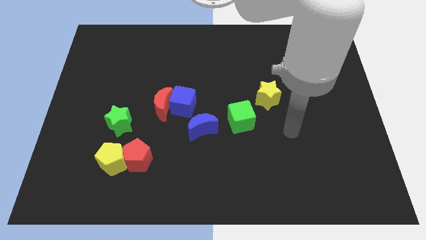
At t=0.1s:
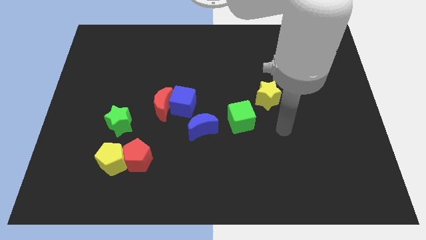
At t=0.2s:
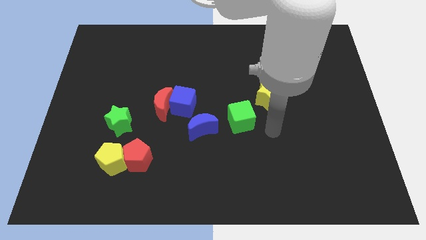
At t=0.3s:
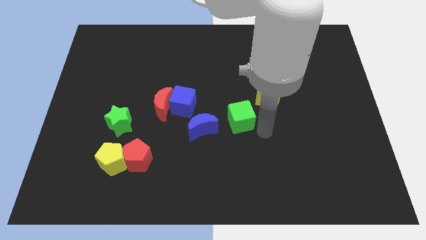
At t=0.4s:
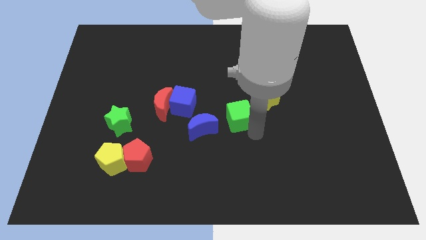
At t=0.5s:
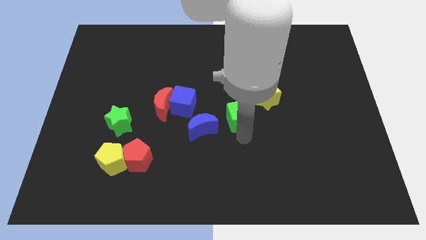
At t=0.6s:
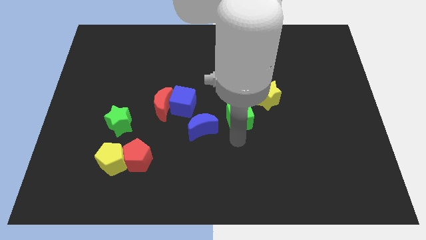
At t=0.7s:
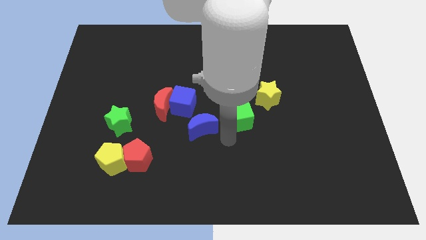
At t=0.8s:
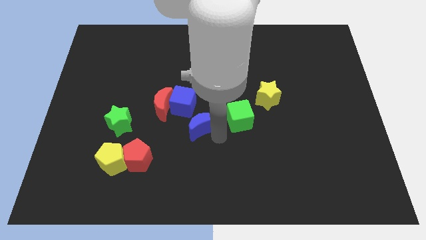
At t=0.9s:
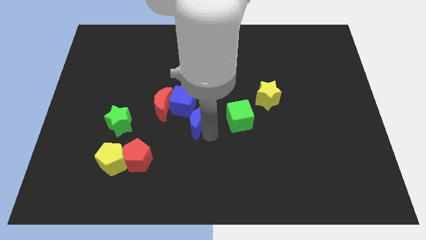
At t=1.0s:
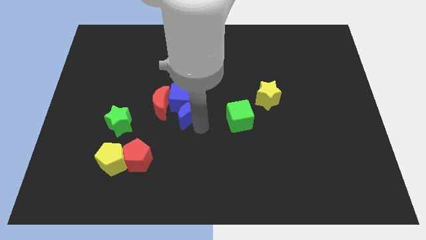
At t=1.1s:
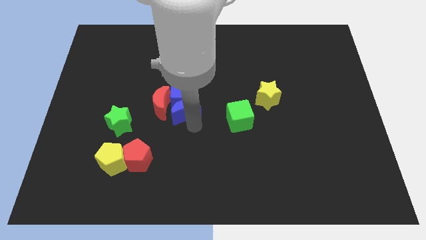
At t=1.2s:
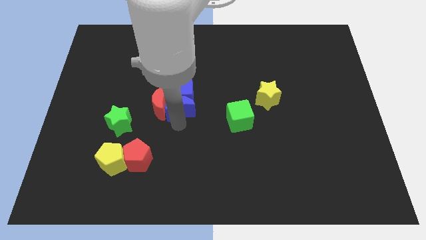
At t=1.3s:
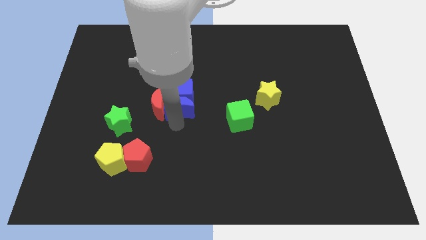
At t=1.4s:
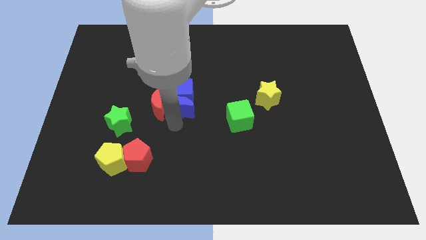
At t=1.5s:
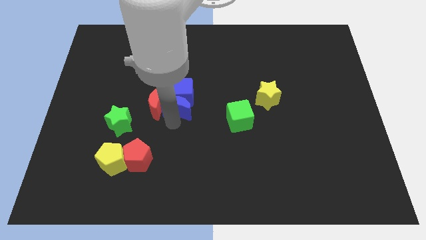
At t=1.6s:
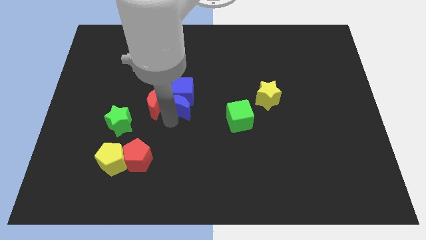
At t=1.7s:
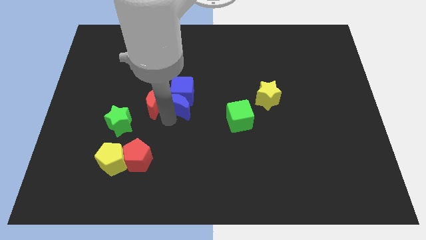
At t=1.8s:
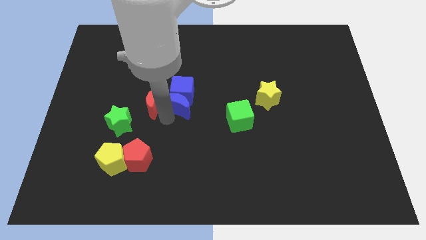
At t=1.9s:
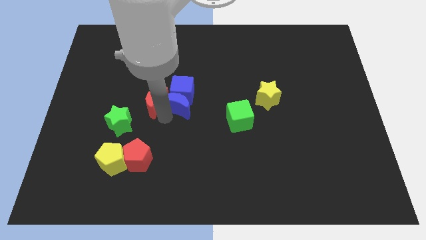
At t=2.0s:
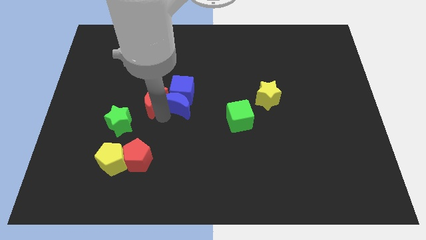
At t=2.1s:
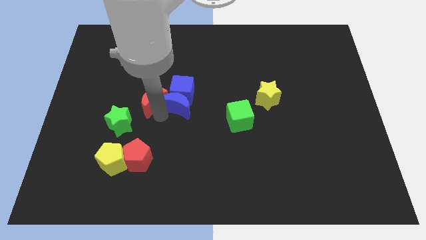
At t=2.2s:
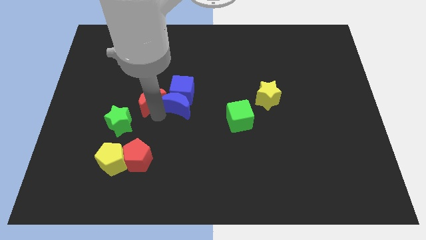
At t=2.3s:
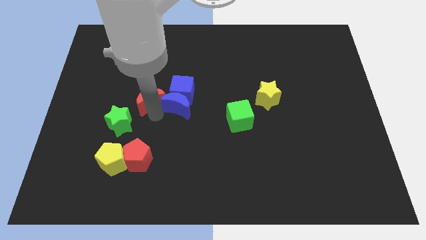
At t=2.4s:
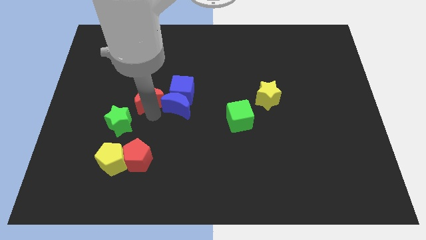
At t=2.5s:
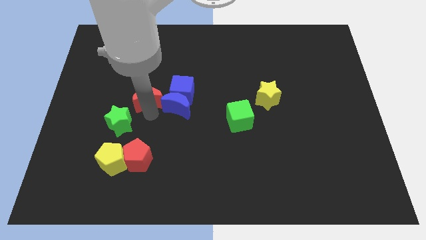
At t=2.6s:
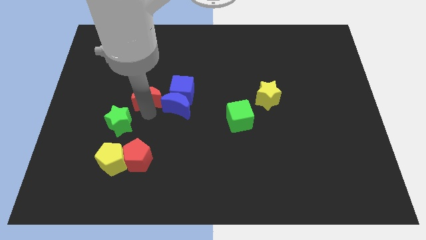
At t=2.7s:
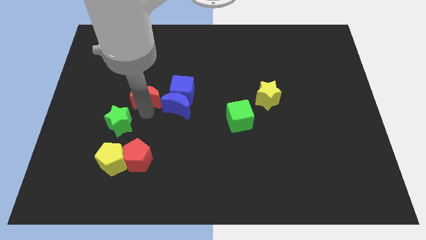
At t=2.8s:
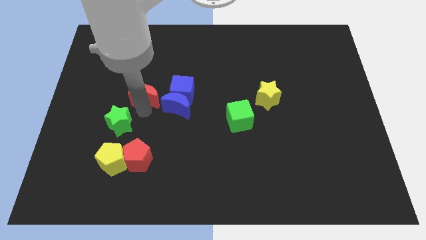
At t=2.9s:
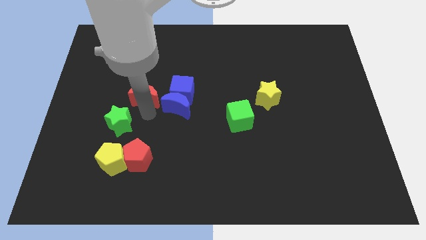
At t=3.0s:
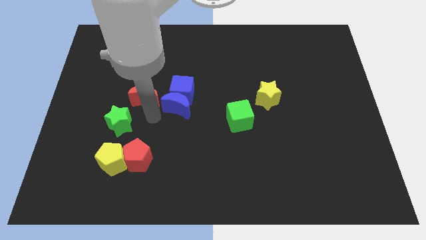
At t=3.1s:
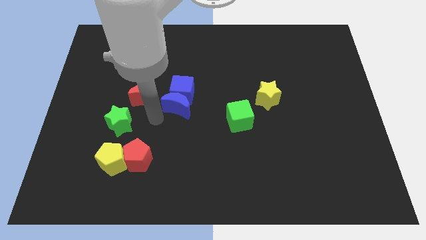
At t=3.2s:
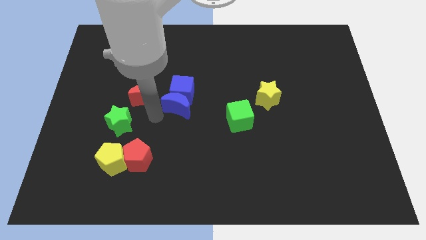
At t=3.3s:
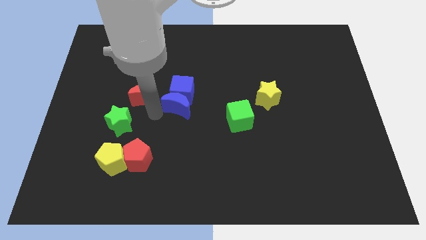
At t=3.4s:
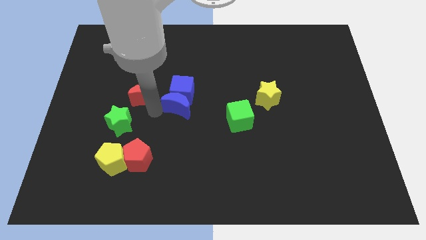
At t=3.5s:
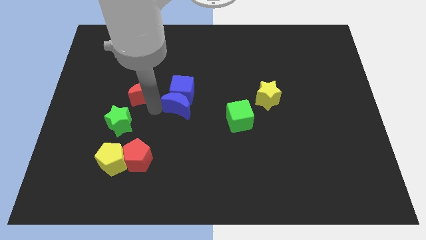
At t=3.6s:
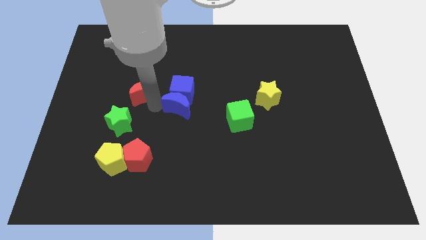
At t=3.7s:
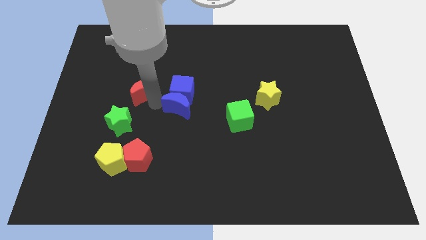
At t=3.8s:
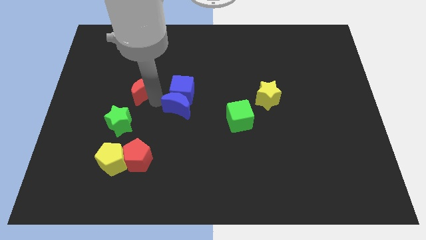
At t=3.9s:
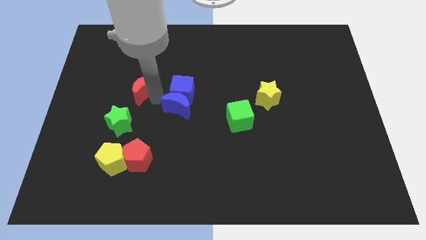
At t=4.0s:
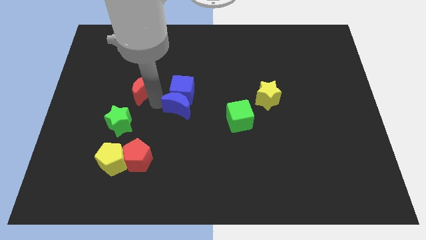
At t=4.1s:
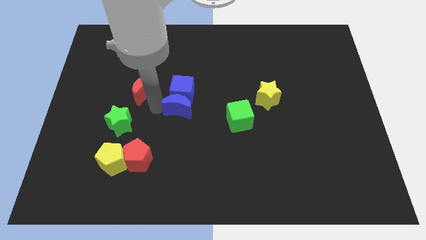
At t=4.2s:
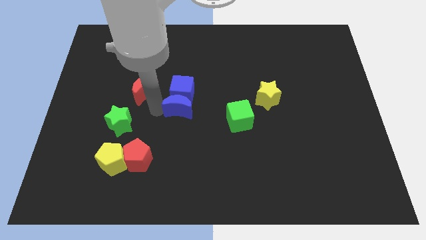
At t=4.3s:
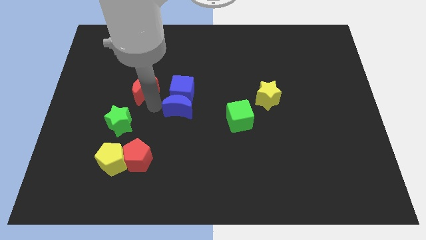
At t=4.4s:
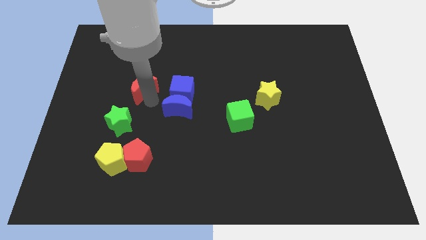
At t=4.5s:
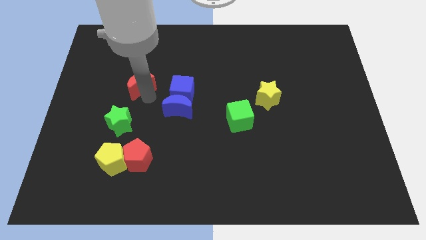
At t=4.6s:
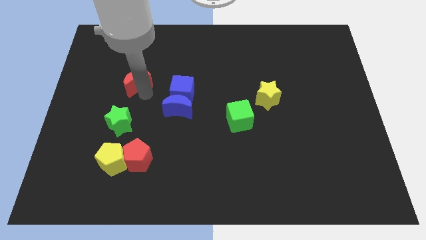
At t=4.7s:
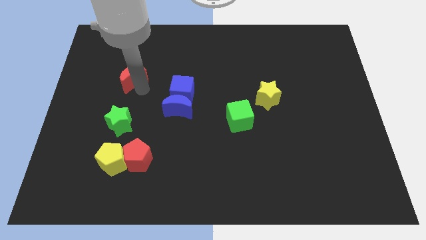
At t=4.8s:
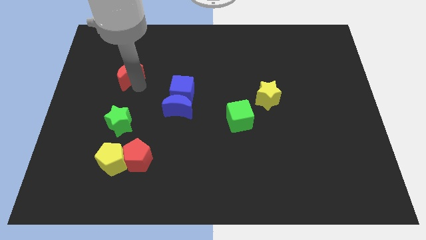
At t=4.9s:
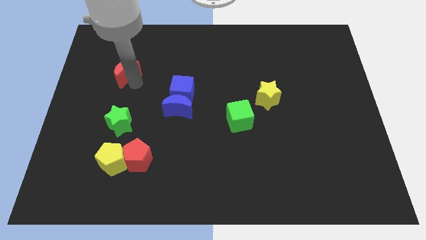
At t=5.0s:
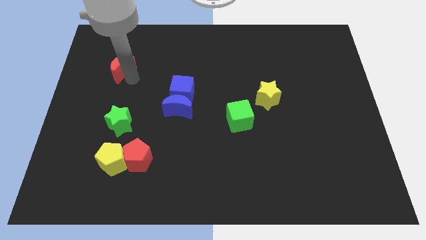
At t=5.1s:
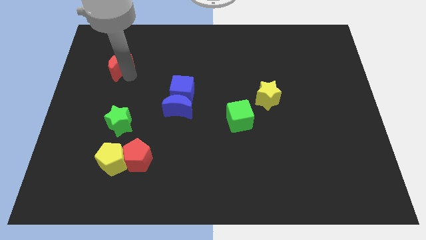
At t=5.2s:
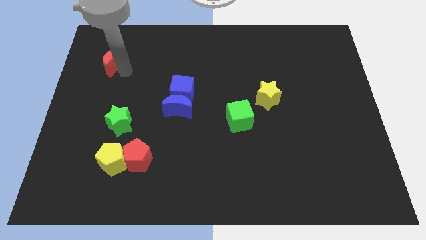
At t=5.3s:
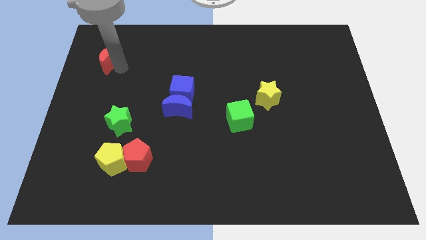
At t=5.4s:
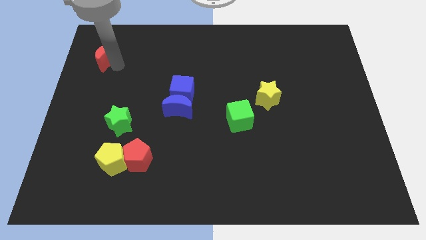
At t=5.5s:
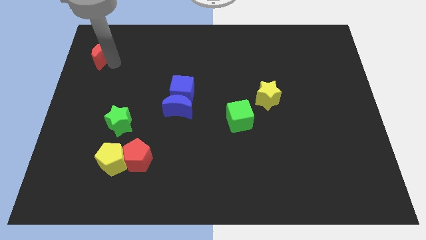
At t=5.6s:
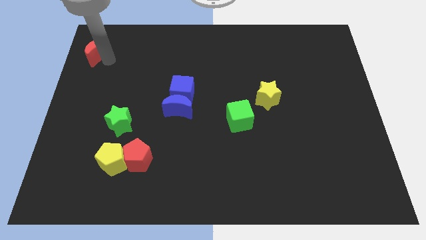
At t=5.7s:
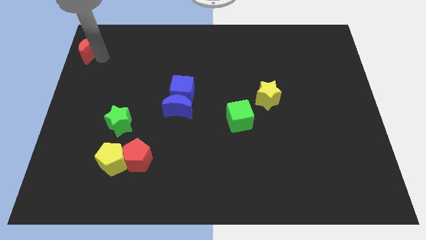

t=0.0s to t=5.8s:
put the red moon to the top left of the board

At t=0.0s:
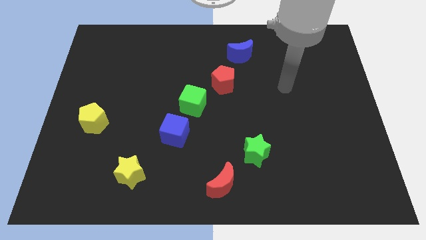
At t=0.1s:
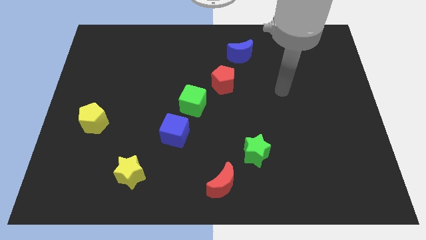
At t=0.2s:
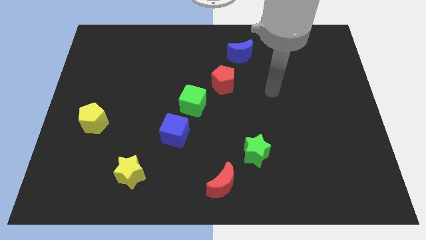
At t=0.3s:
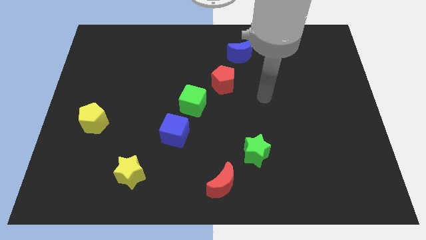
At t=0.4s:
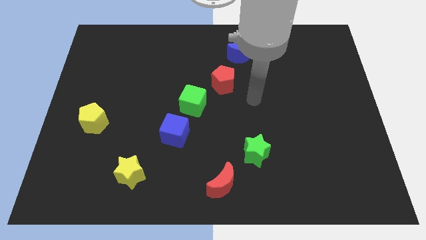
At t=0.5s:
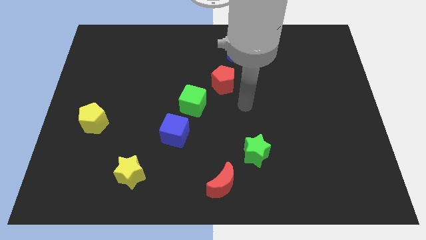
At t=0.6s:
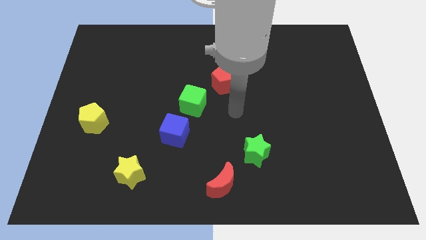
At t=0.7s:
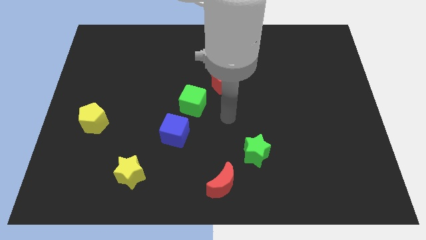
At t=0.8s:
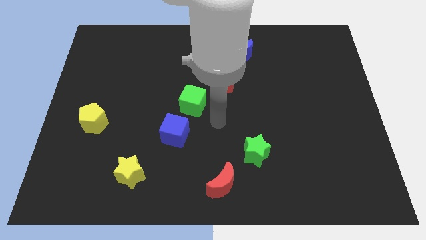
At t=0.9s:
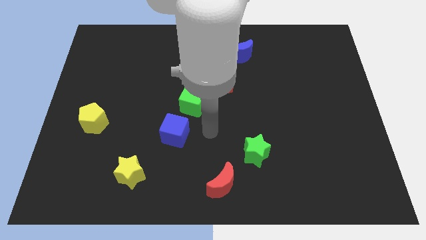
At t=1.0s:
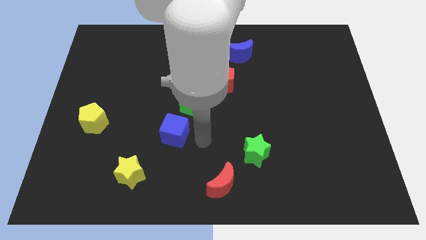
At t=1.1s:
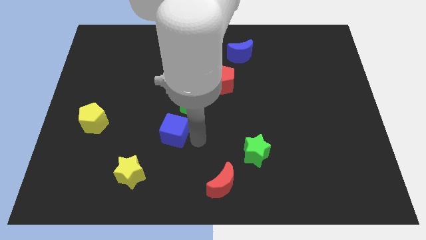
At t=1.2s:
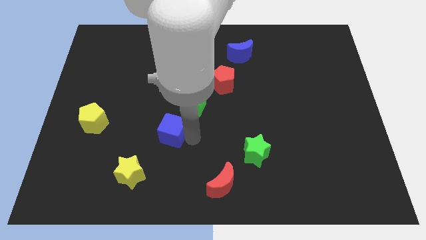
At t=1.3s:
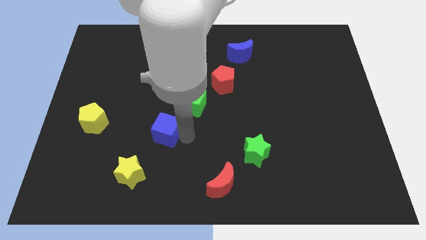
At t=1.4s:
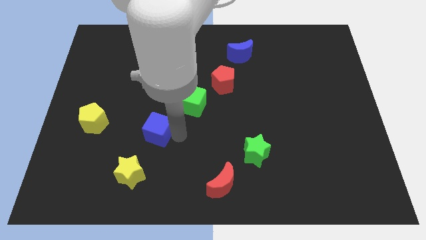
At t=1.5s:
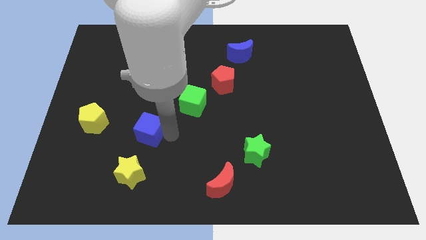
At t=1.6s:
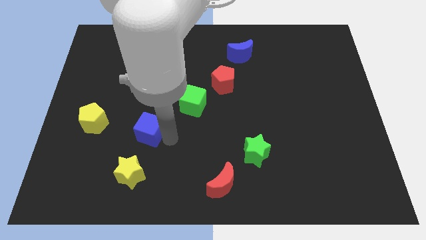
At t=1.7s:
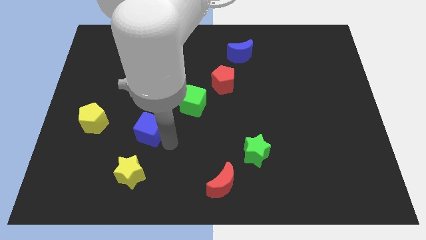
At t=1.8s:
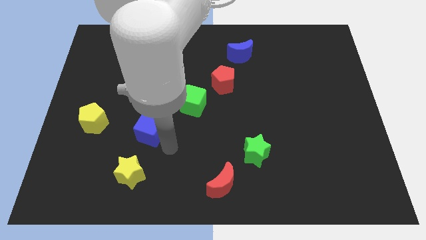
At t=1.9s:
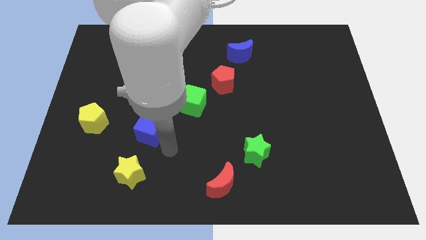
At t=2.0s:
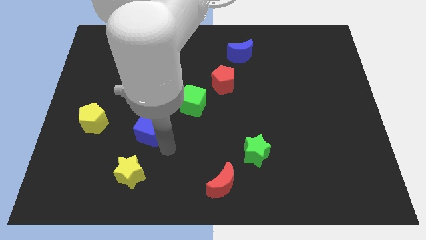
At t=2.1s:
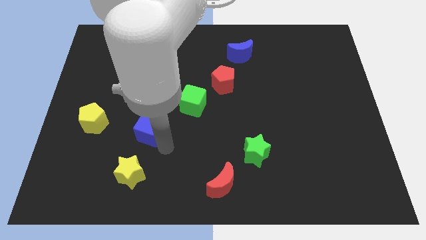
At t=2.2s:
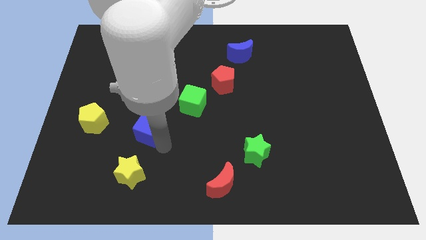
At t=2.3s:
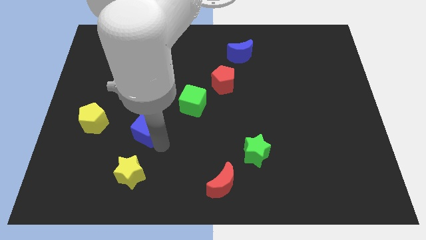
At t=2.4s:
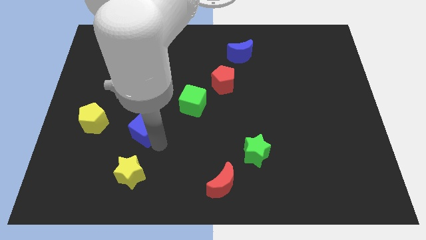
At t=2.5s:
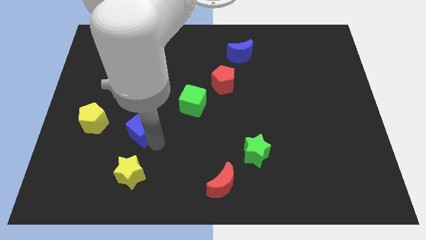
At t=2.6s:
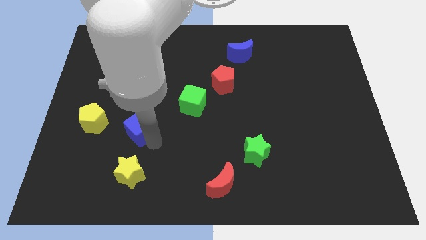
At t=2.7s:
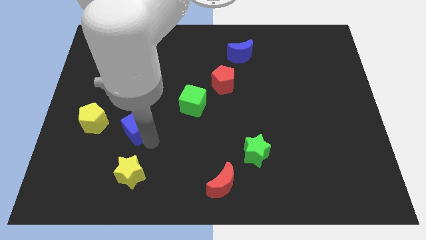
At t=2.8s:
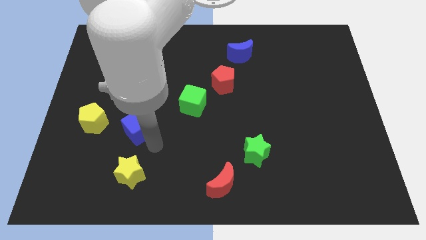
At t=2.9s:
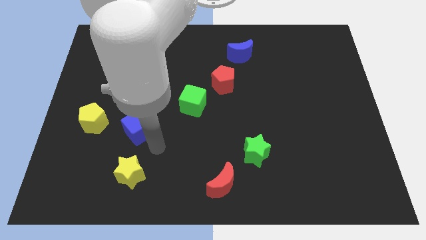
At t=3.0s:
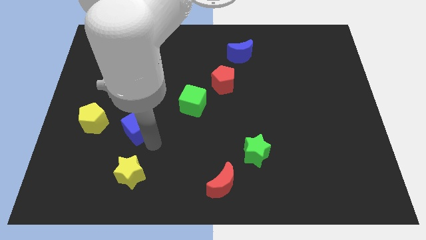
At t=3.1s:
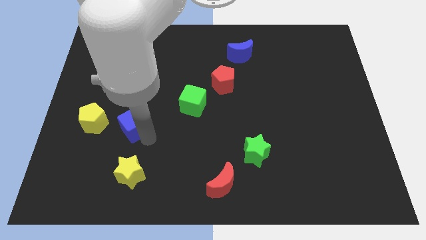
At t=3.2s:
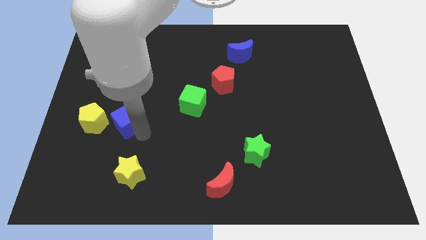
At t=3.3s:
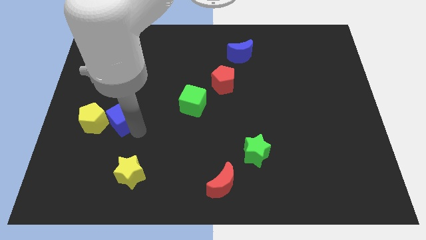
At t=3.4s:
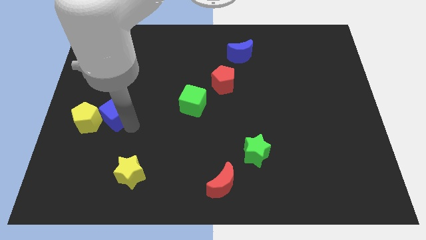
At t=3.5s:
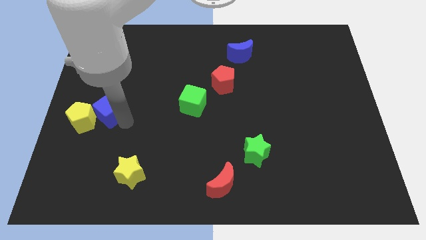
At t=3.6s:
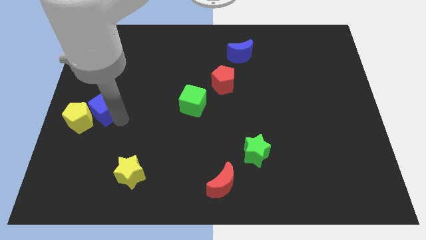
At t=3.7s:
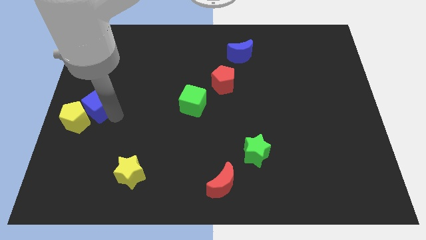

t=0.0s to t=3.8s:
move the blue cube to the left side
